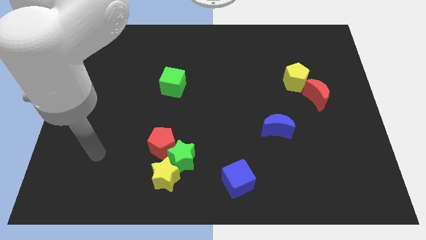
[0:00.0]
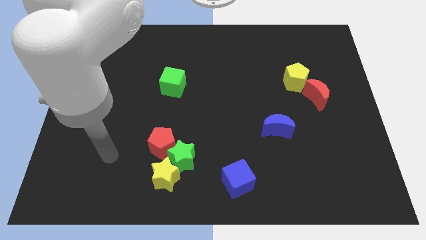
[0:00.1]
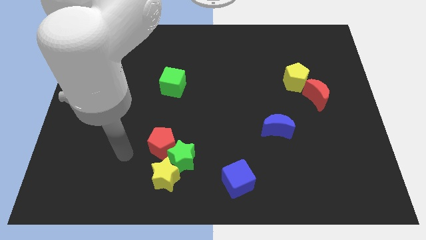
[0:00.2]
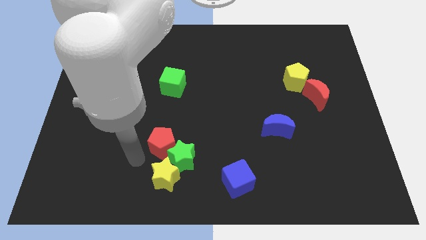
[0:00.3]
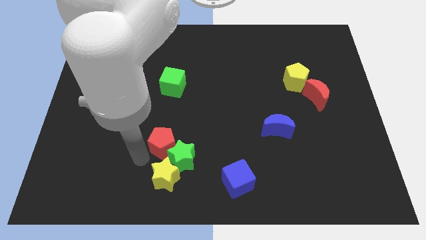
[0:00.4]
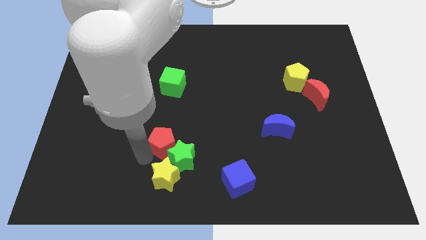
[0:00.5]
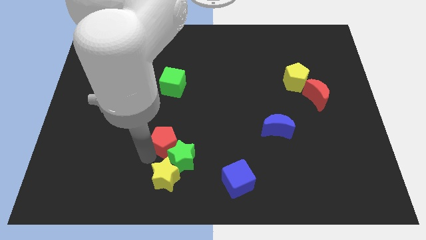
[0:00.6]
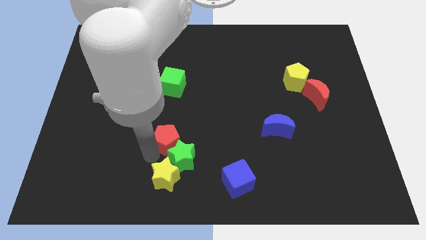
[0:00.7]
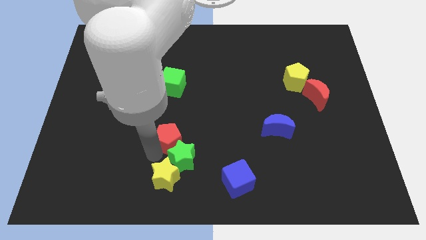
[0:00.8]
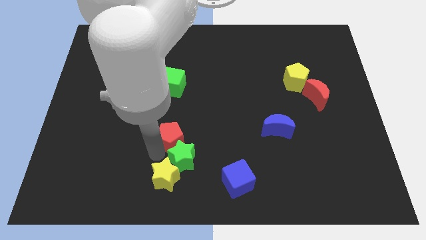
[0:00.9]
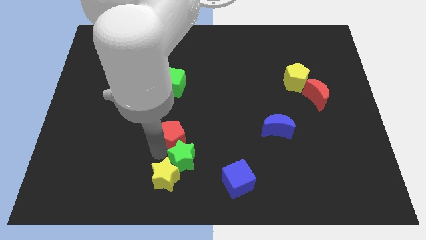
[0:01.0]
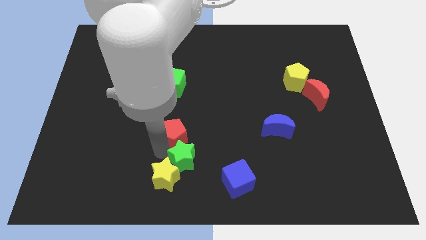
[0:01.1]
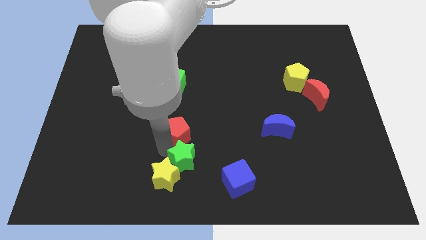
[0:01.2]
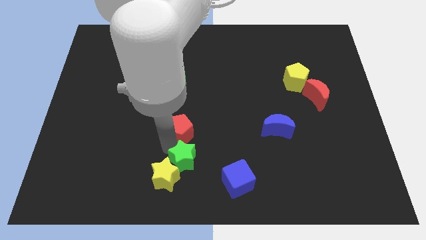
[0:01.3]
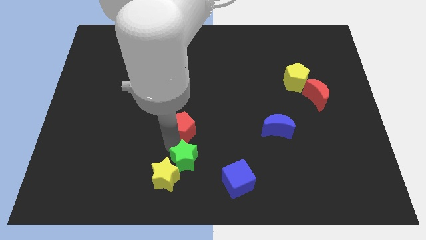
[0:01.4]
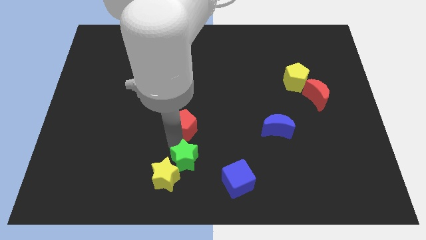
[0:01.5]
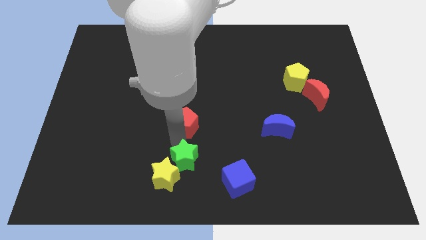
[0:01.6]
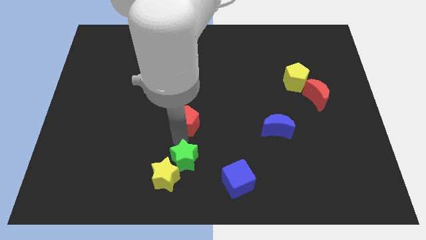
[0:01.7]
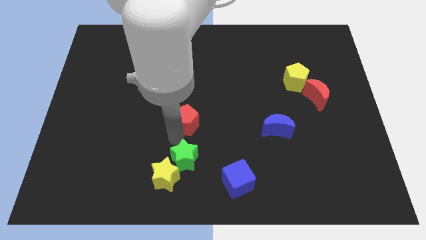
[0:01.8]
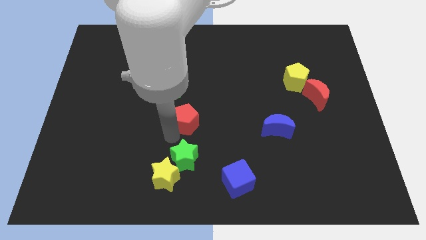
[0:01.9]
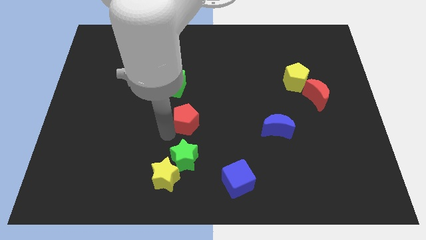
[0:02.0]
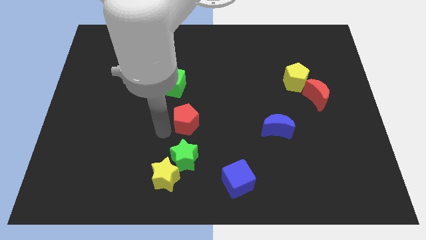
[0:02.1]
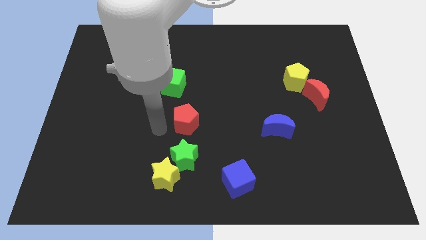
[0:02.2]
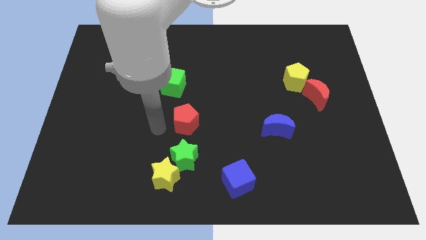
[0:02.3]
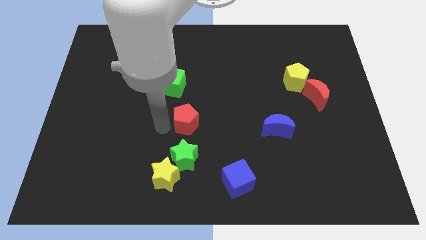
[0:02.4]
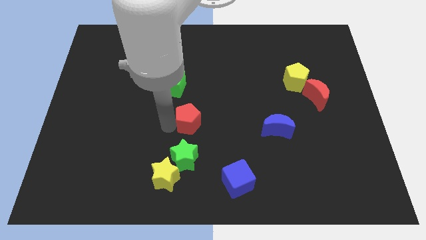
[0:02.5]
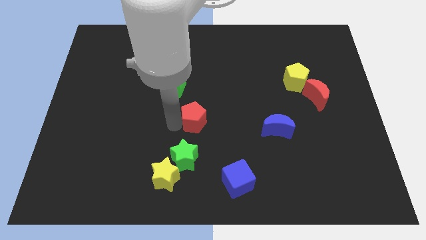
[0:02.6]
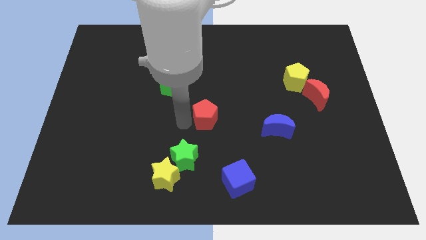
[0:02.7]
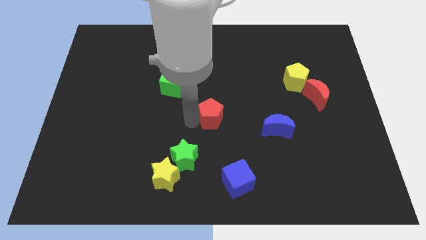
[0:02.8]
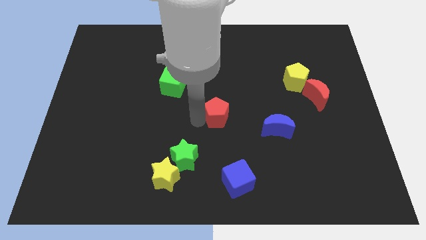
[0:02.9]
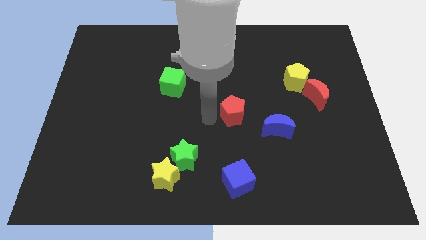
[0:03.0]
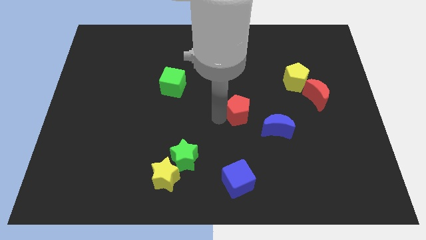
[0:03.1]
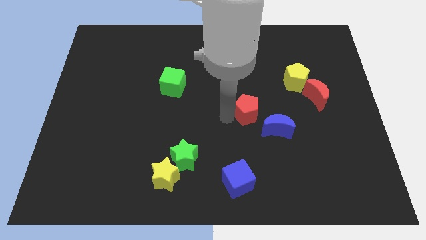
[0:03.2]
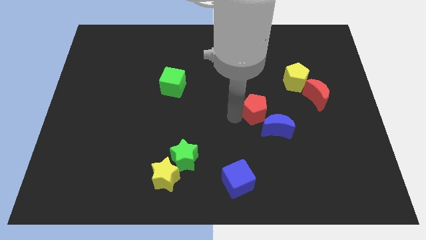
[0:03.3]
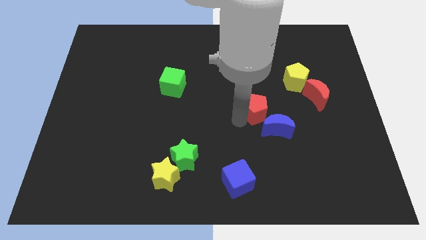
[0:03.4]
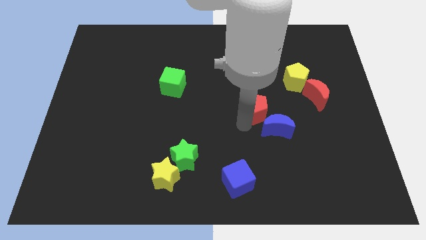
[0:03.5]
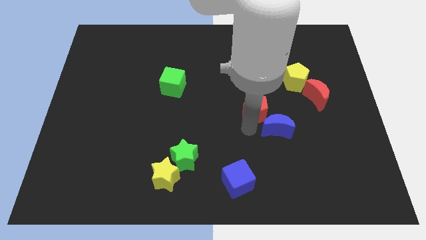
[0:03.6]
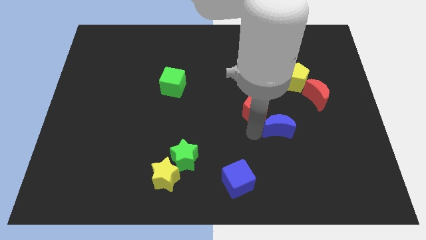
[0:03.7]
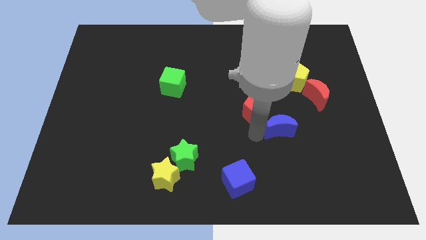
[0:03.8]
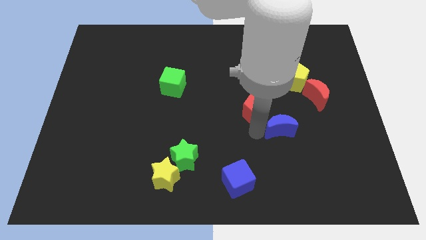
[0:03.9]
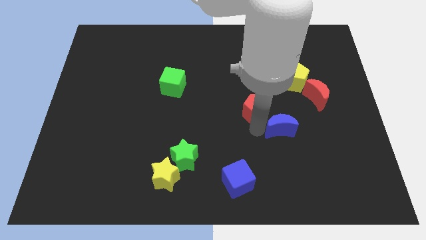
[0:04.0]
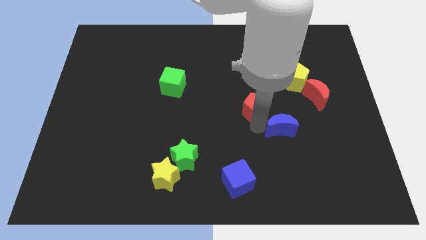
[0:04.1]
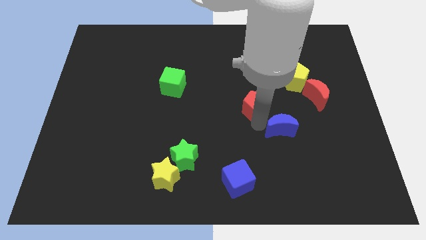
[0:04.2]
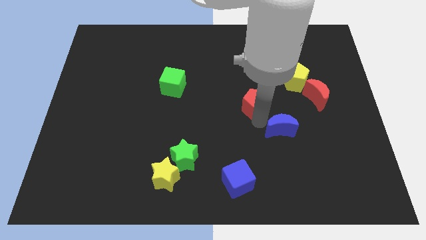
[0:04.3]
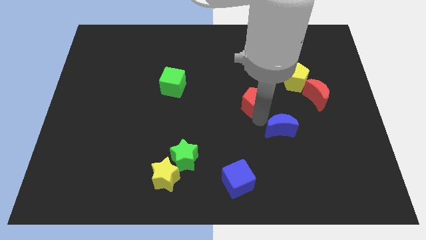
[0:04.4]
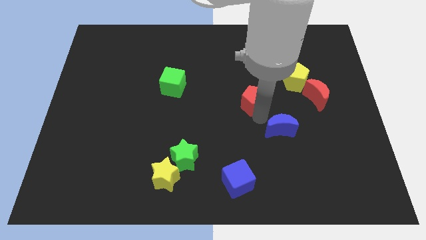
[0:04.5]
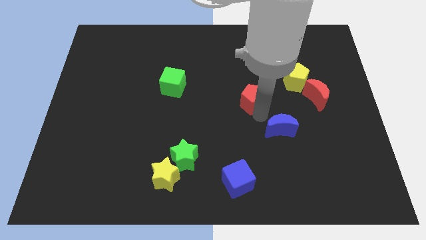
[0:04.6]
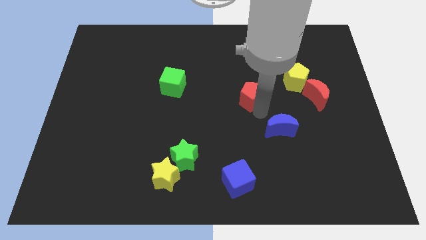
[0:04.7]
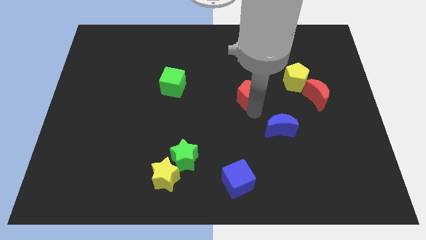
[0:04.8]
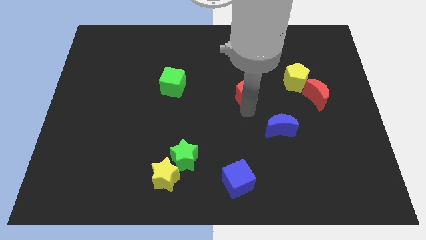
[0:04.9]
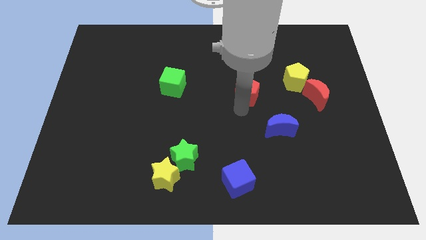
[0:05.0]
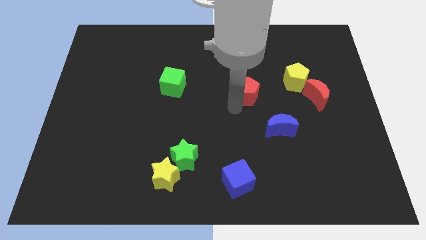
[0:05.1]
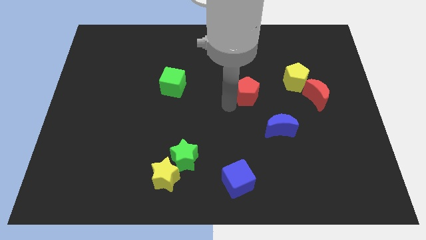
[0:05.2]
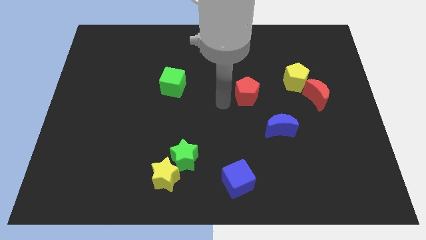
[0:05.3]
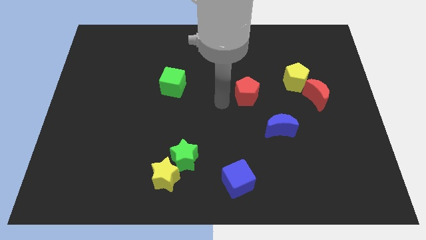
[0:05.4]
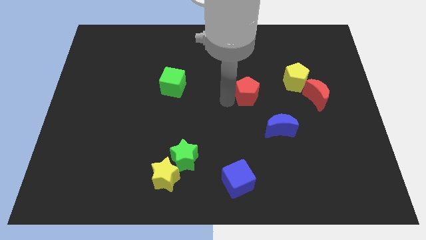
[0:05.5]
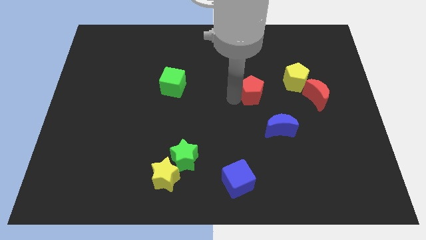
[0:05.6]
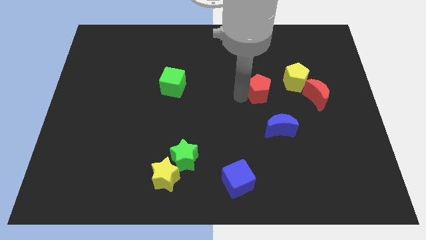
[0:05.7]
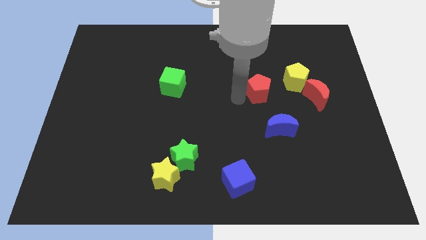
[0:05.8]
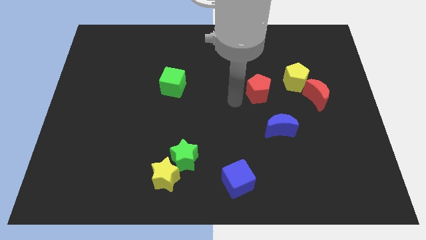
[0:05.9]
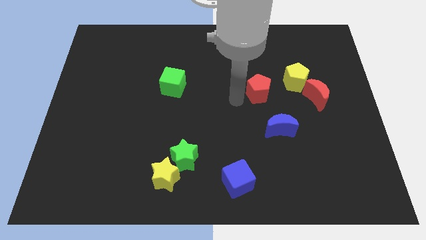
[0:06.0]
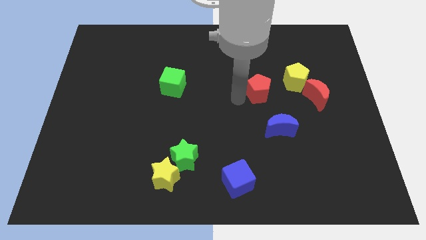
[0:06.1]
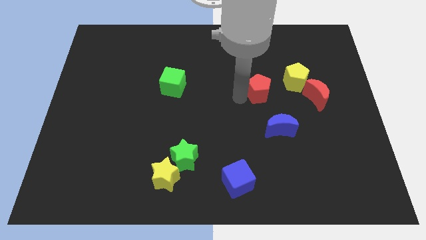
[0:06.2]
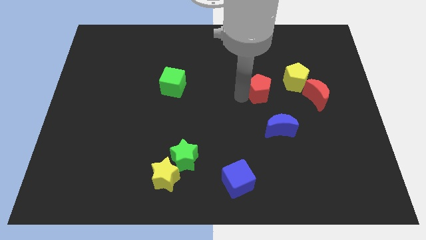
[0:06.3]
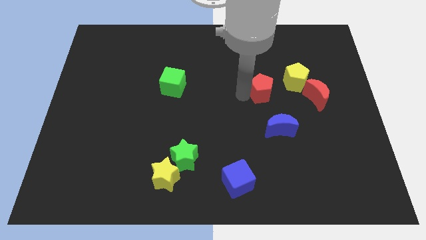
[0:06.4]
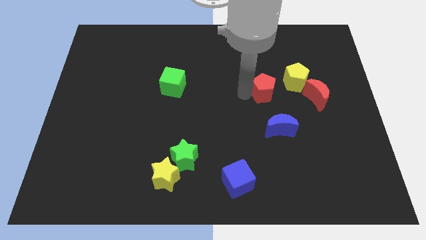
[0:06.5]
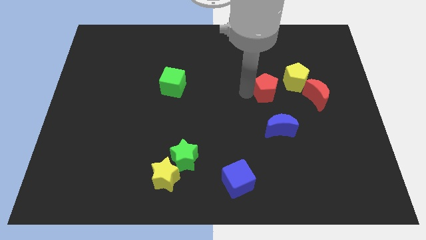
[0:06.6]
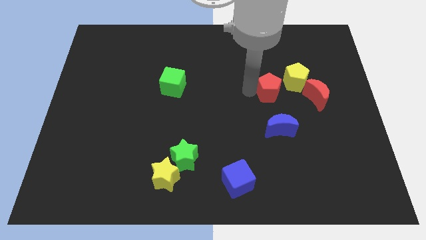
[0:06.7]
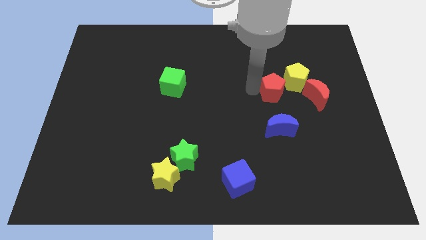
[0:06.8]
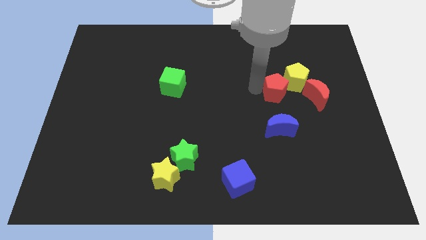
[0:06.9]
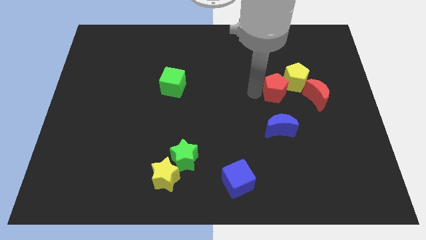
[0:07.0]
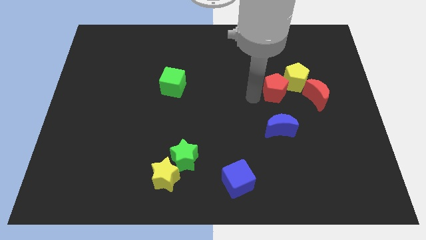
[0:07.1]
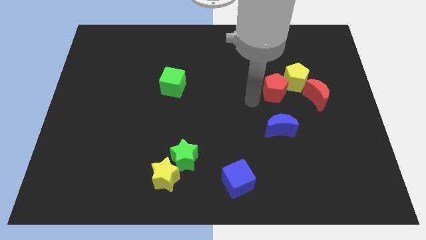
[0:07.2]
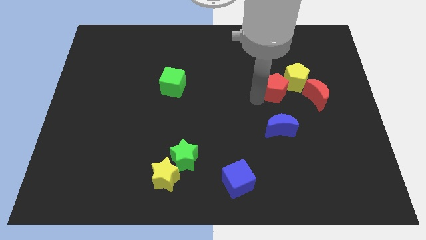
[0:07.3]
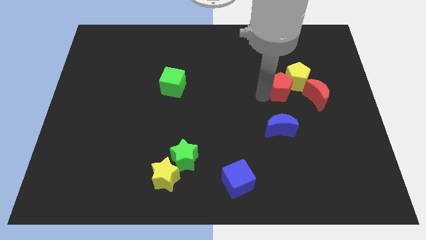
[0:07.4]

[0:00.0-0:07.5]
move the red pentagon towards the yellow pentagon
